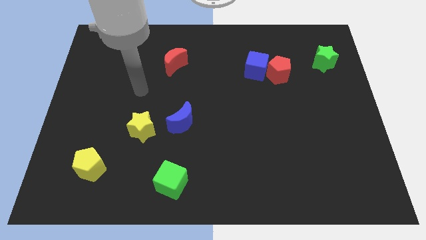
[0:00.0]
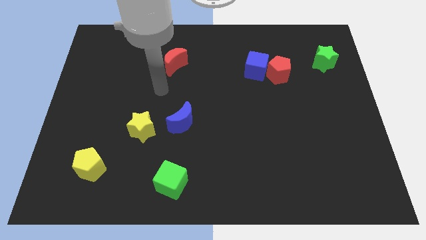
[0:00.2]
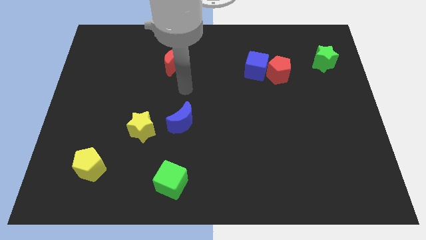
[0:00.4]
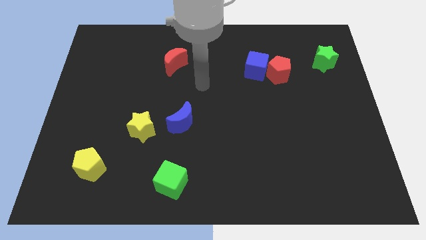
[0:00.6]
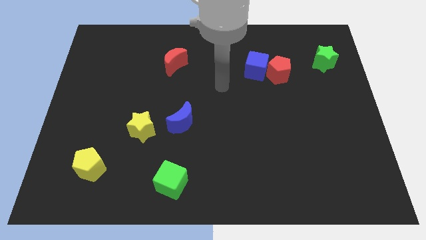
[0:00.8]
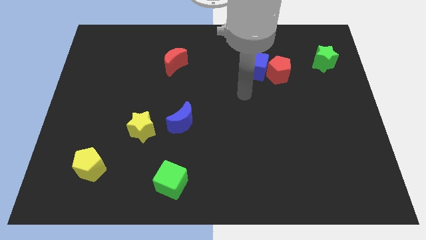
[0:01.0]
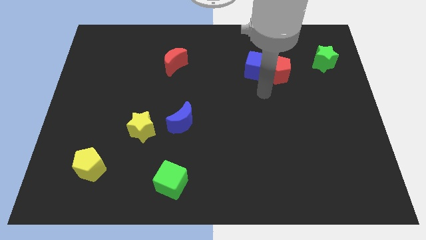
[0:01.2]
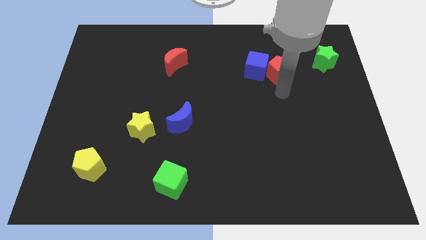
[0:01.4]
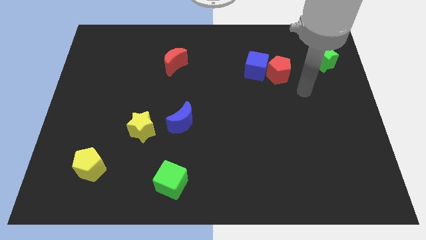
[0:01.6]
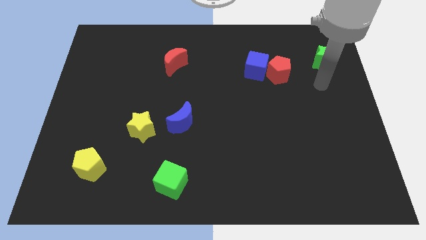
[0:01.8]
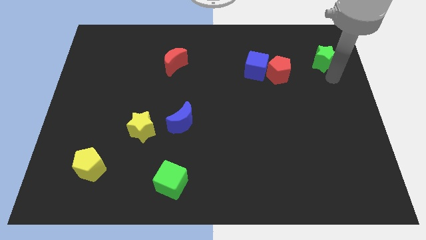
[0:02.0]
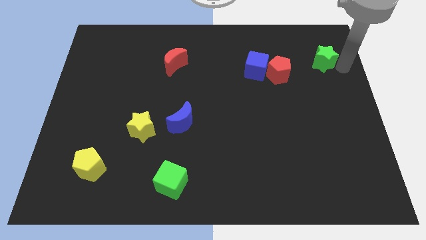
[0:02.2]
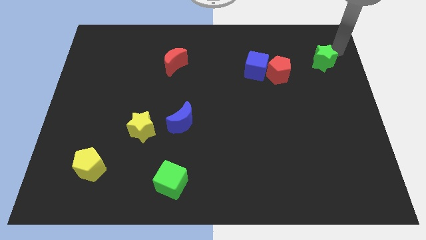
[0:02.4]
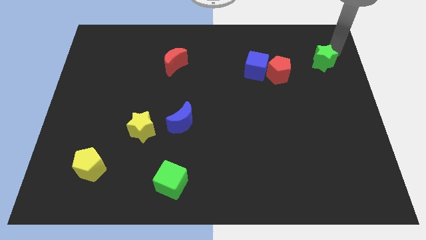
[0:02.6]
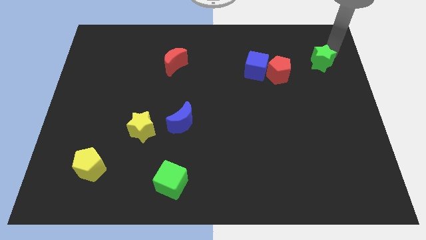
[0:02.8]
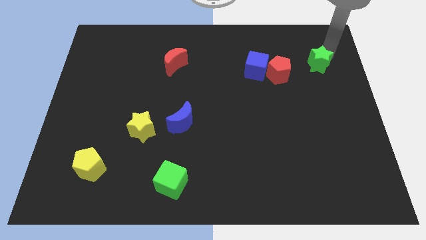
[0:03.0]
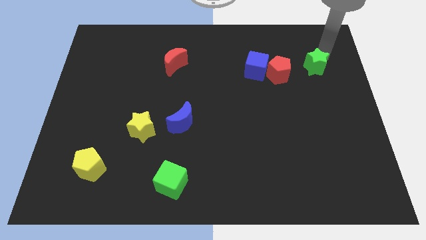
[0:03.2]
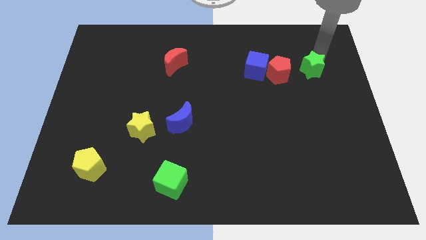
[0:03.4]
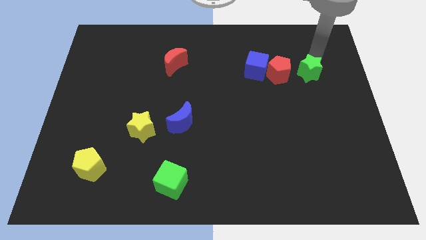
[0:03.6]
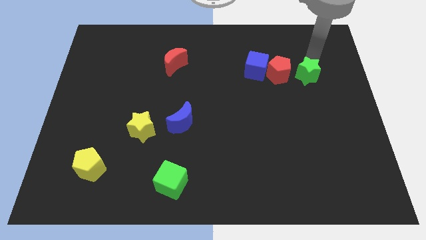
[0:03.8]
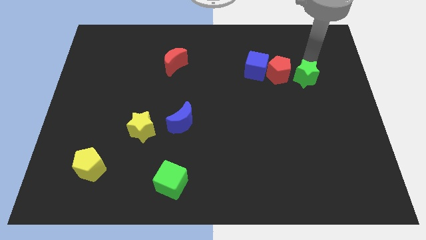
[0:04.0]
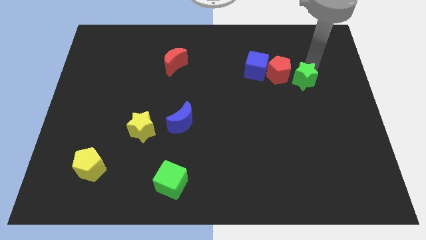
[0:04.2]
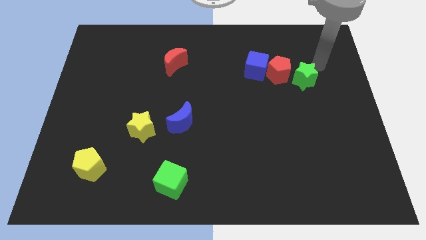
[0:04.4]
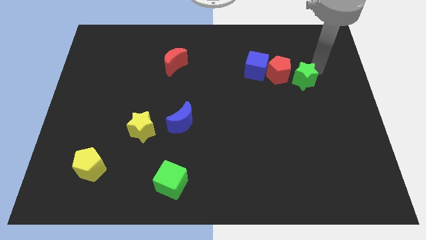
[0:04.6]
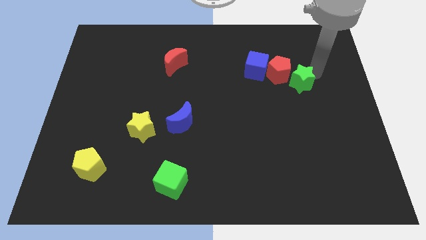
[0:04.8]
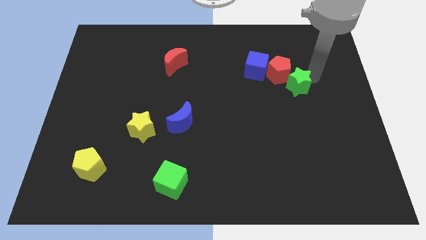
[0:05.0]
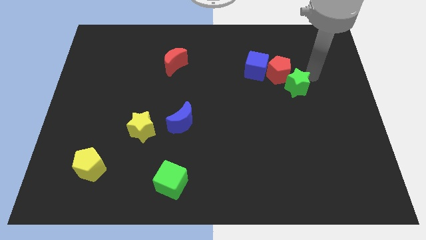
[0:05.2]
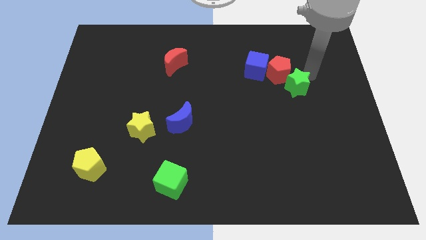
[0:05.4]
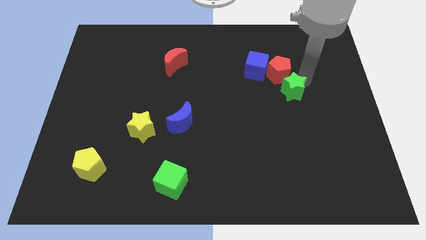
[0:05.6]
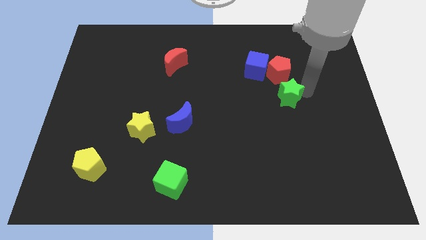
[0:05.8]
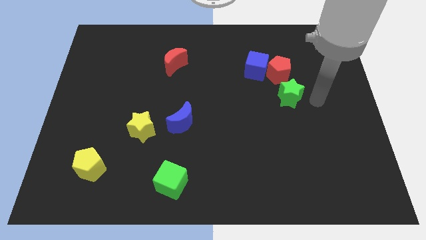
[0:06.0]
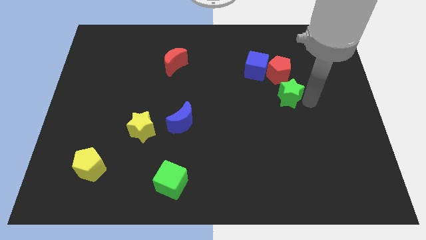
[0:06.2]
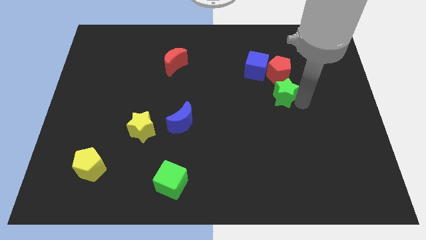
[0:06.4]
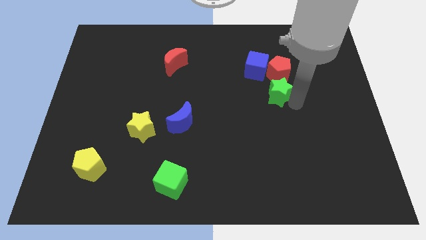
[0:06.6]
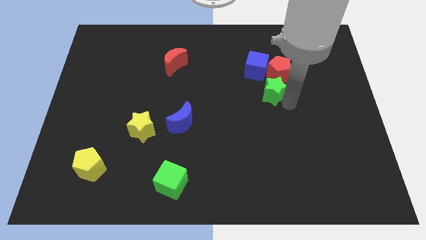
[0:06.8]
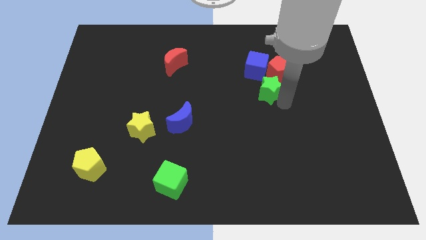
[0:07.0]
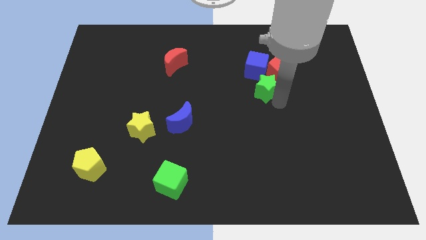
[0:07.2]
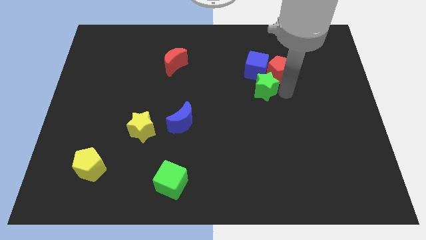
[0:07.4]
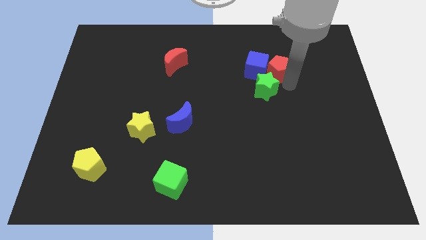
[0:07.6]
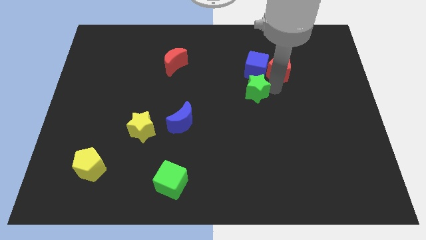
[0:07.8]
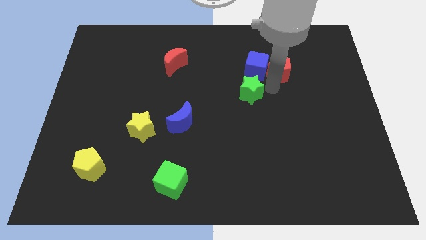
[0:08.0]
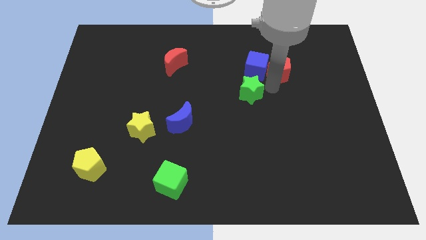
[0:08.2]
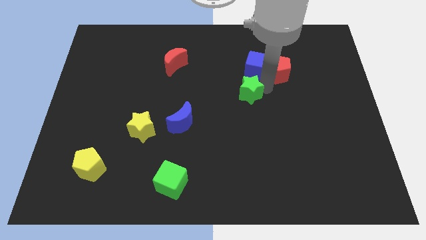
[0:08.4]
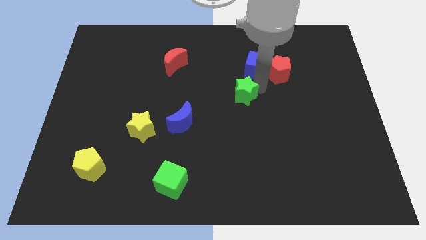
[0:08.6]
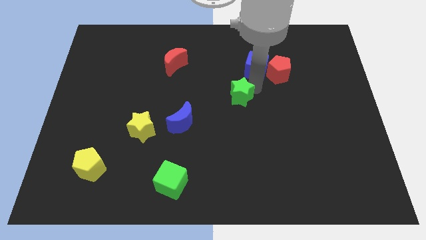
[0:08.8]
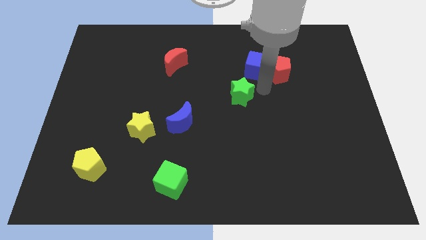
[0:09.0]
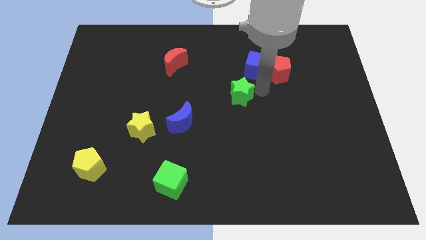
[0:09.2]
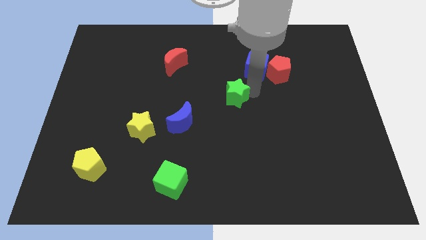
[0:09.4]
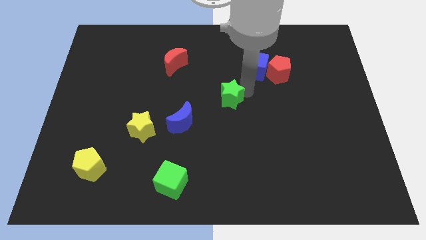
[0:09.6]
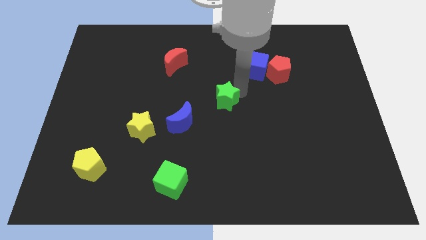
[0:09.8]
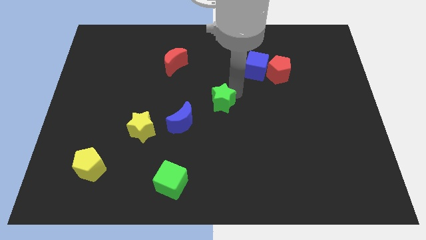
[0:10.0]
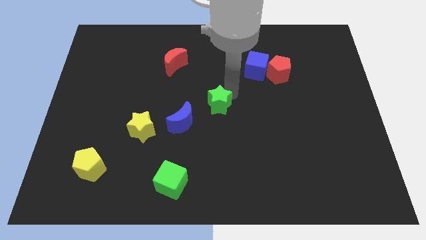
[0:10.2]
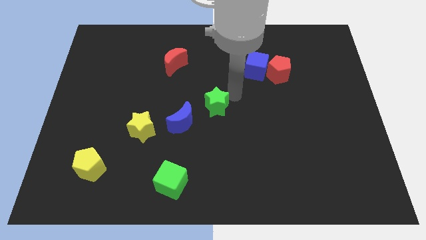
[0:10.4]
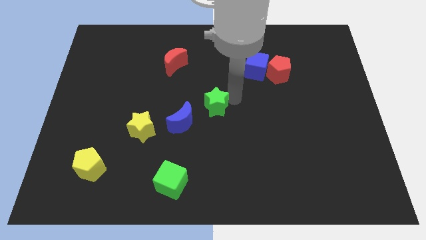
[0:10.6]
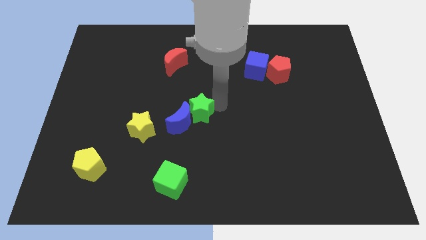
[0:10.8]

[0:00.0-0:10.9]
move the green star next to the blue moon

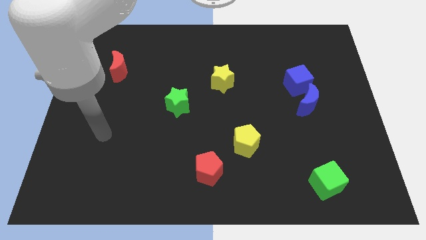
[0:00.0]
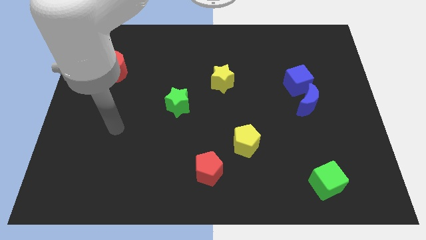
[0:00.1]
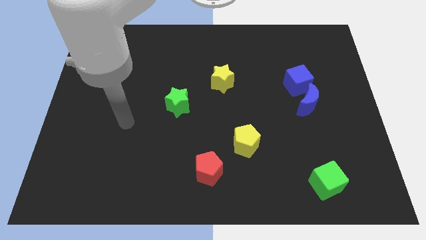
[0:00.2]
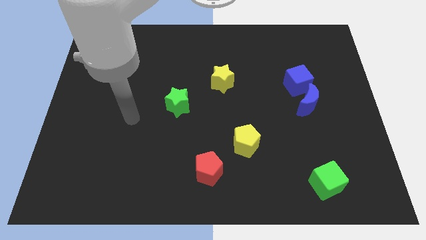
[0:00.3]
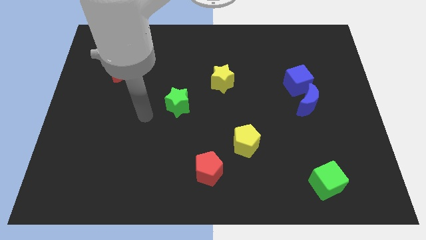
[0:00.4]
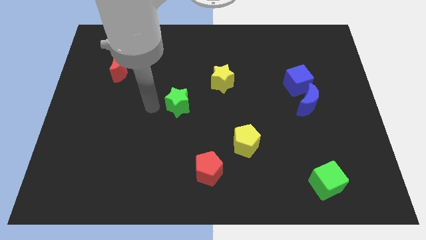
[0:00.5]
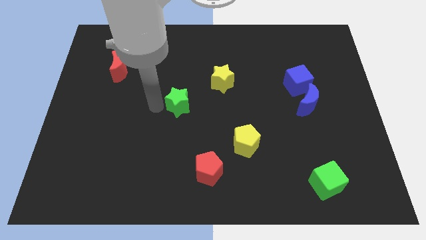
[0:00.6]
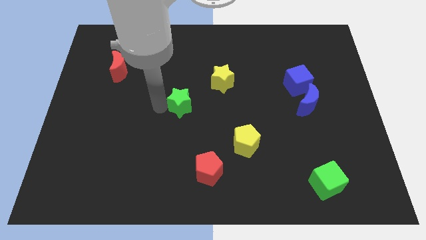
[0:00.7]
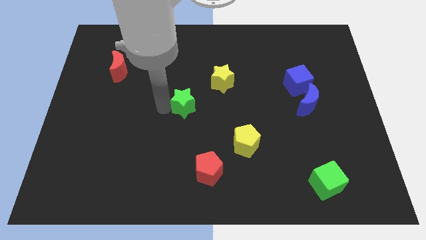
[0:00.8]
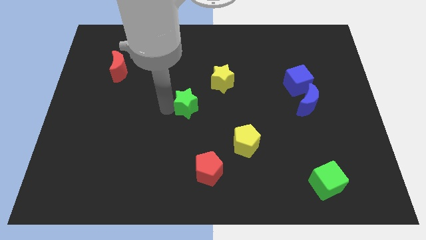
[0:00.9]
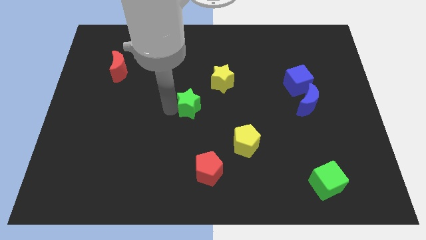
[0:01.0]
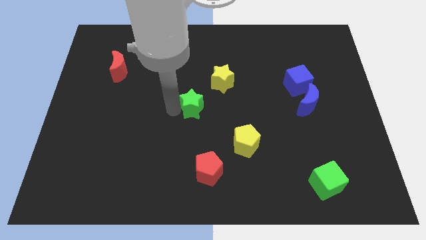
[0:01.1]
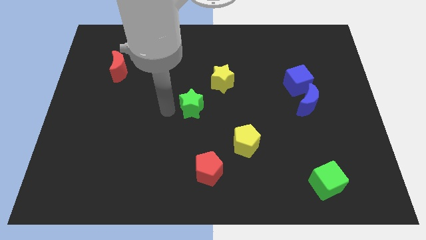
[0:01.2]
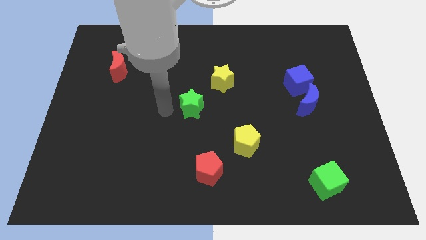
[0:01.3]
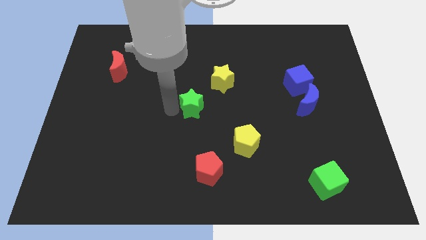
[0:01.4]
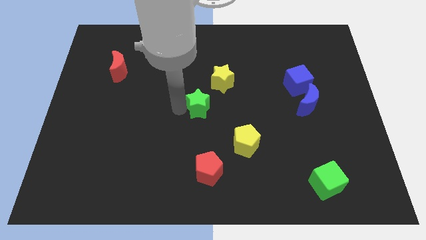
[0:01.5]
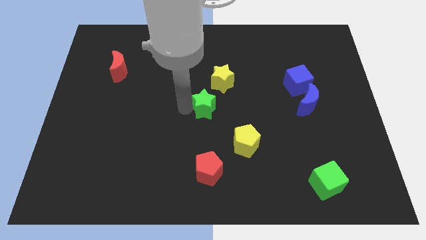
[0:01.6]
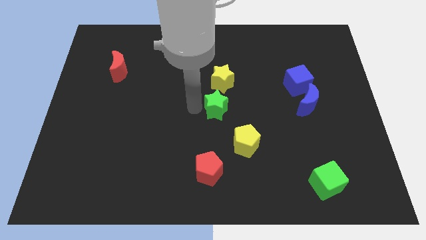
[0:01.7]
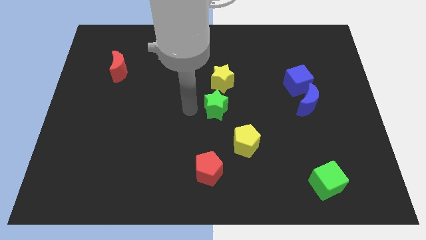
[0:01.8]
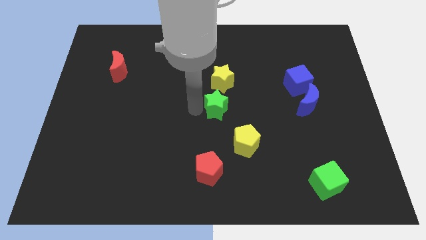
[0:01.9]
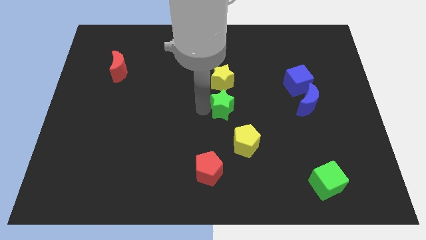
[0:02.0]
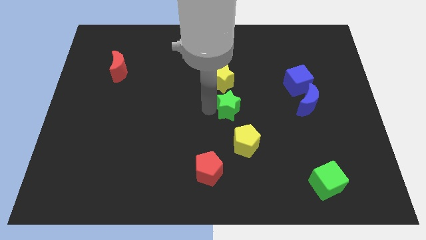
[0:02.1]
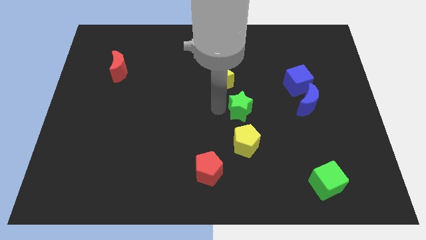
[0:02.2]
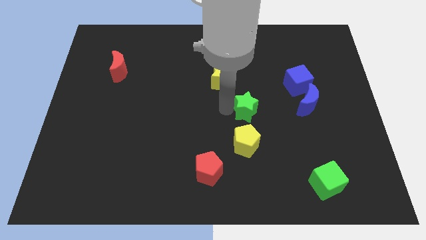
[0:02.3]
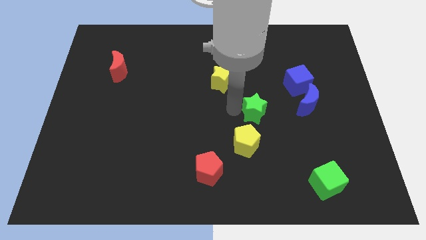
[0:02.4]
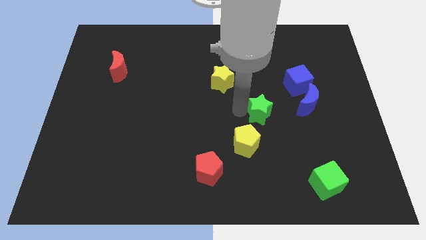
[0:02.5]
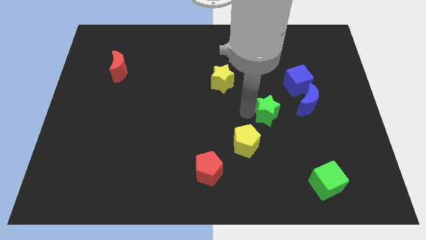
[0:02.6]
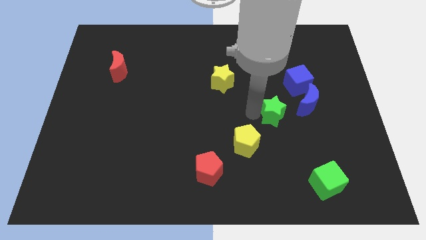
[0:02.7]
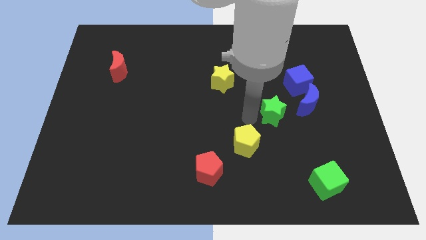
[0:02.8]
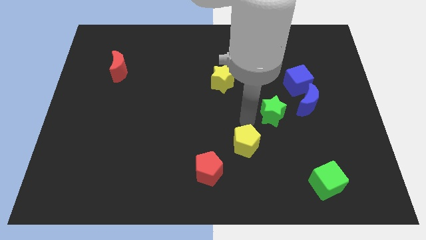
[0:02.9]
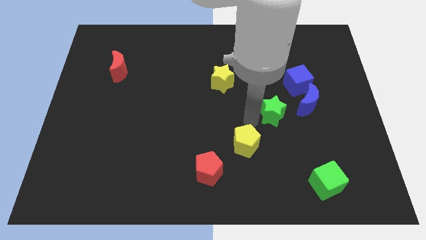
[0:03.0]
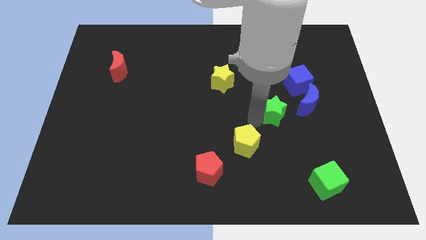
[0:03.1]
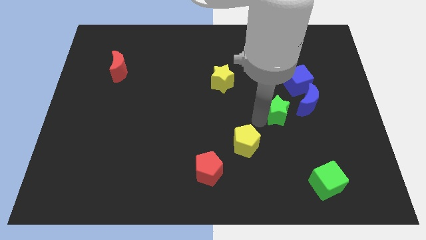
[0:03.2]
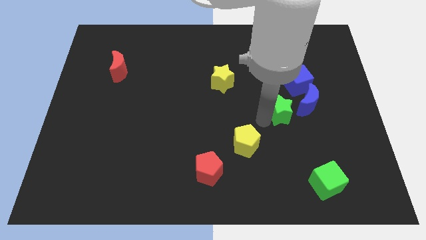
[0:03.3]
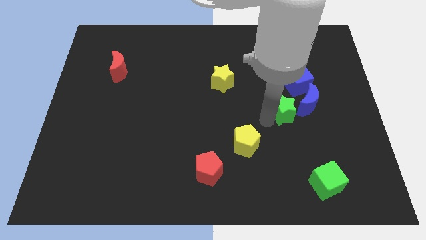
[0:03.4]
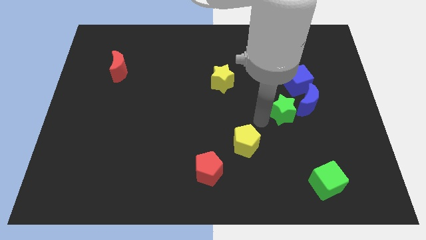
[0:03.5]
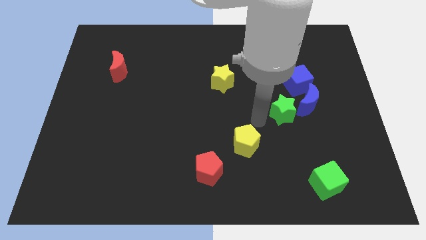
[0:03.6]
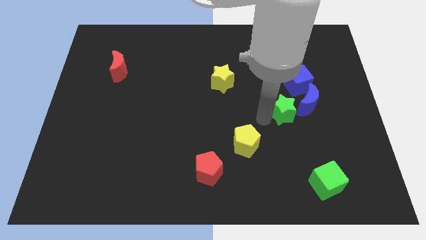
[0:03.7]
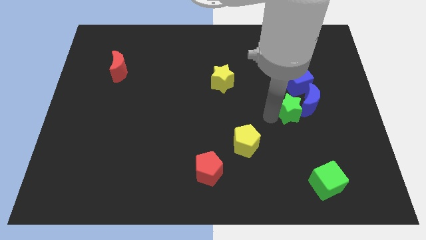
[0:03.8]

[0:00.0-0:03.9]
push the green star to the blue moon
